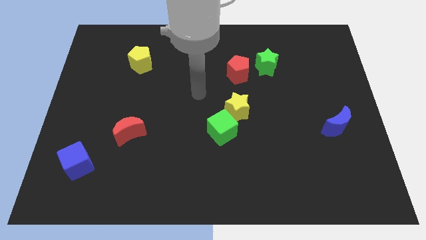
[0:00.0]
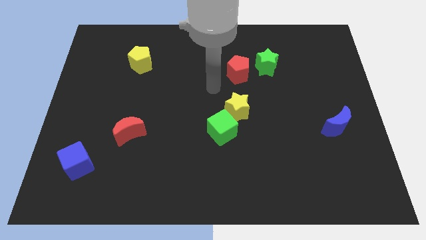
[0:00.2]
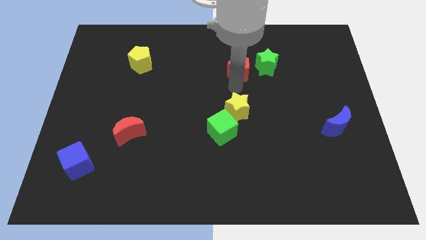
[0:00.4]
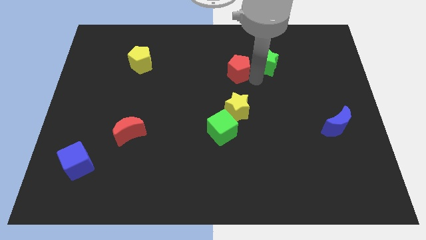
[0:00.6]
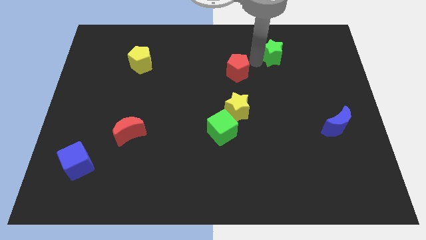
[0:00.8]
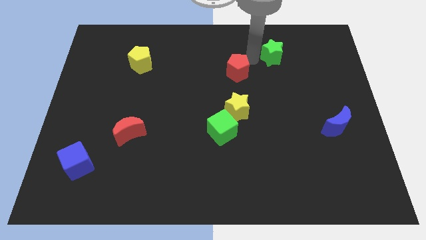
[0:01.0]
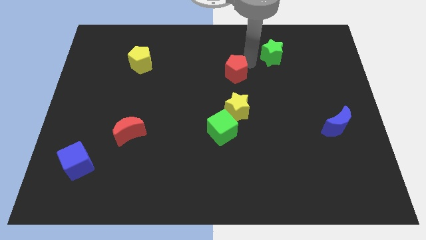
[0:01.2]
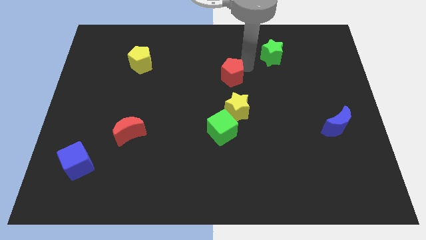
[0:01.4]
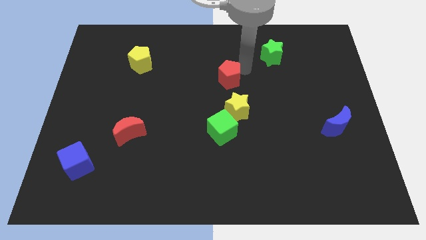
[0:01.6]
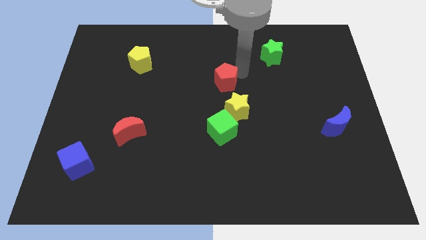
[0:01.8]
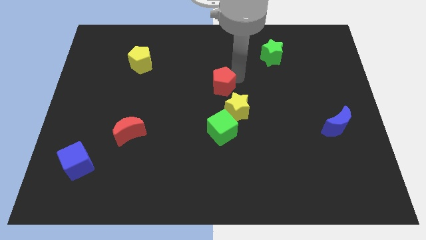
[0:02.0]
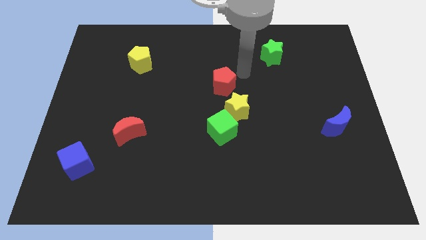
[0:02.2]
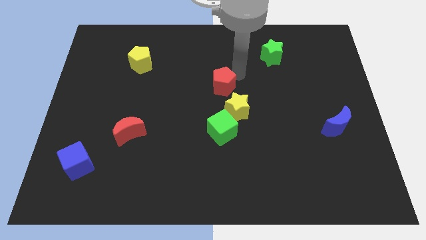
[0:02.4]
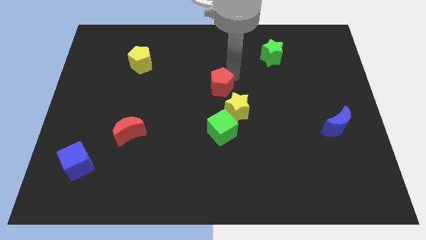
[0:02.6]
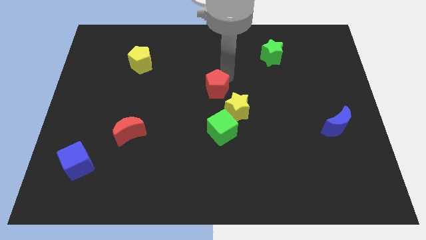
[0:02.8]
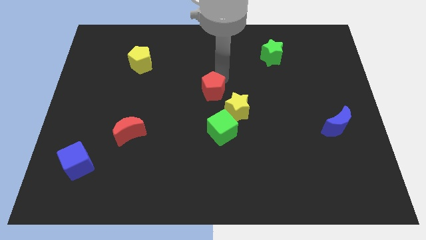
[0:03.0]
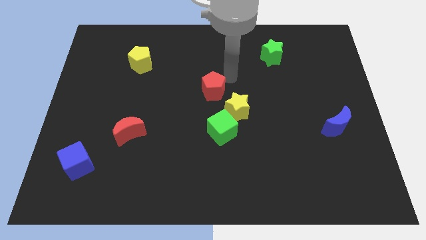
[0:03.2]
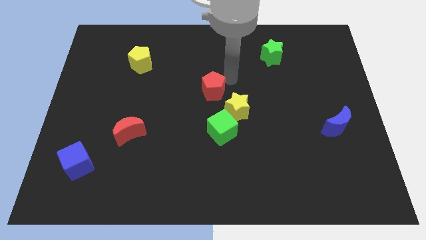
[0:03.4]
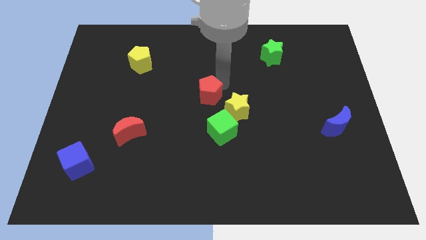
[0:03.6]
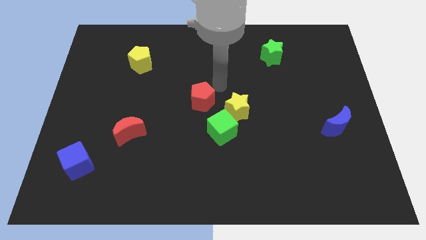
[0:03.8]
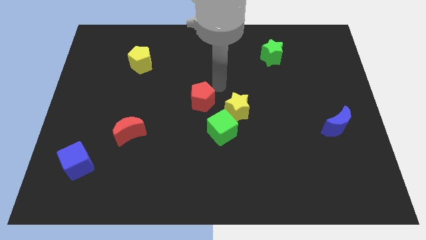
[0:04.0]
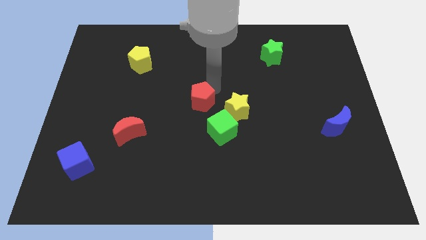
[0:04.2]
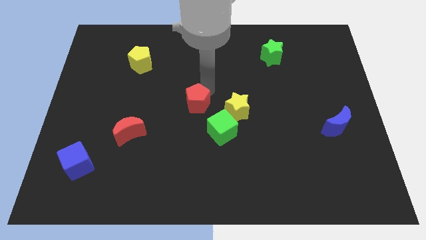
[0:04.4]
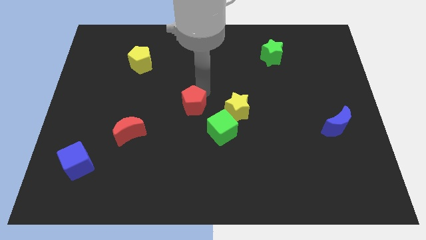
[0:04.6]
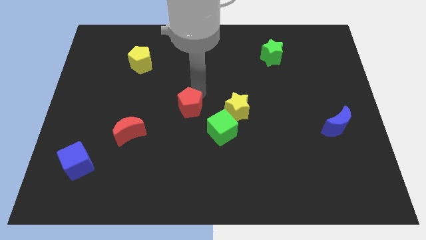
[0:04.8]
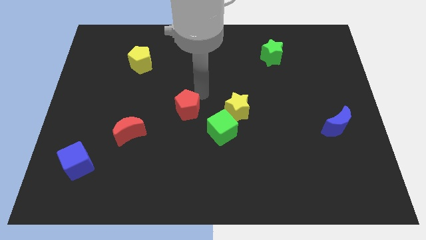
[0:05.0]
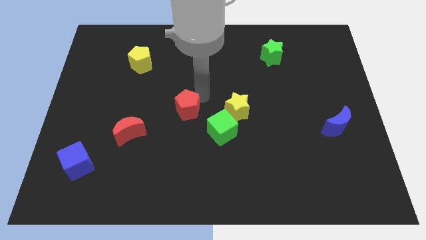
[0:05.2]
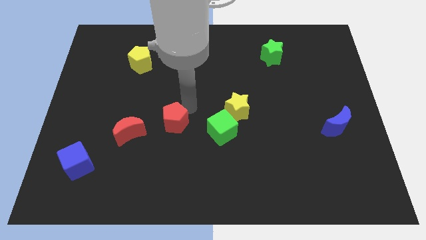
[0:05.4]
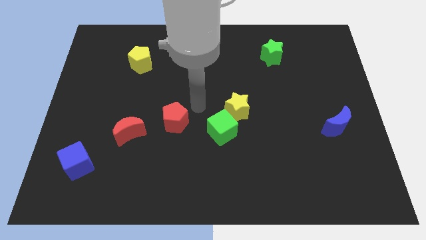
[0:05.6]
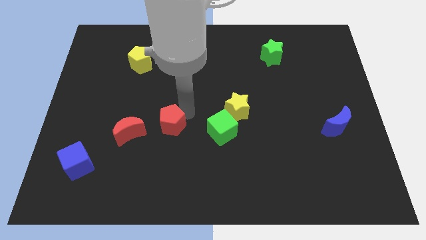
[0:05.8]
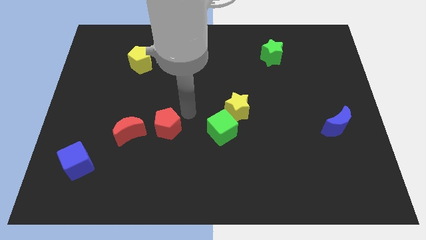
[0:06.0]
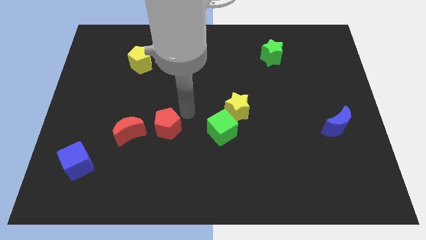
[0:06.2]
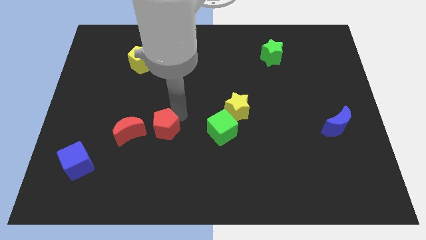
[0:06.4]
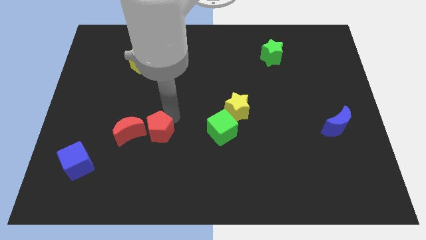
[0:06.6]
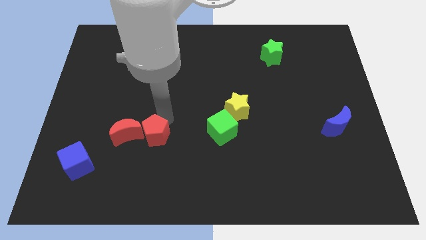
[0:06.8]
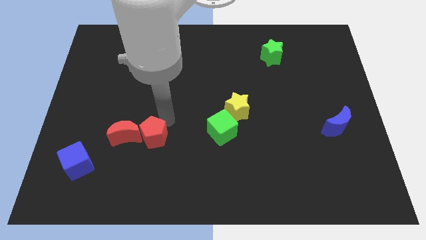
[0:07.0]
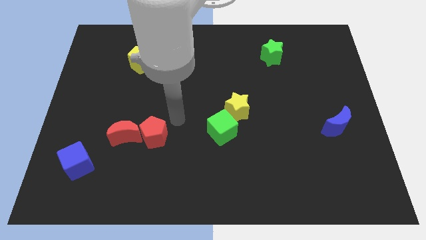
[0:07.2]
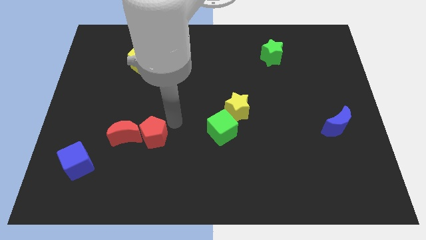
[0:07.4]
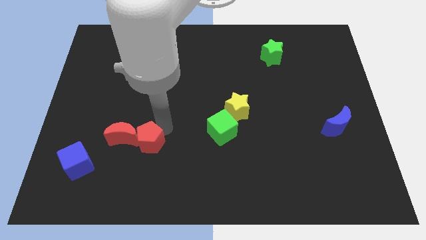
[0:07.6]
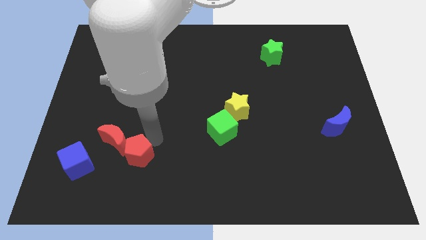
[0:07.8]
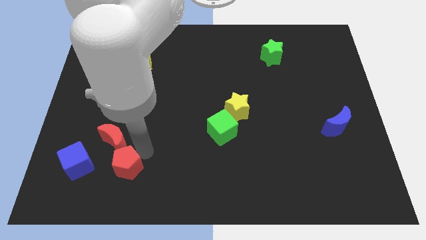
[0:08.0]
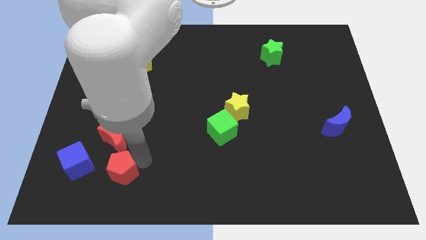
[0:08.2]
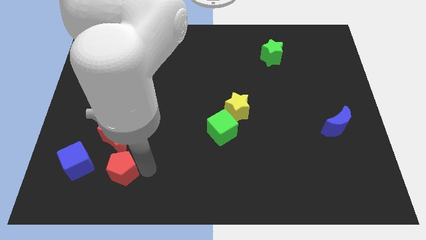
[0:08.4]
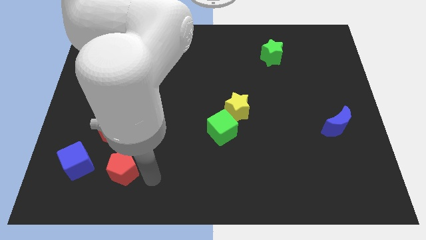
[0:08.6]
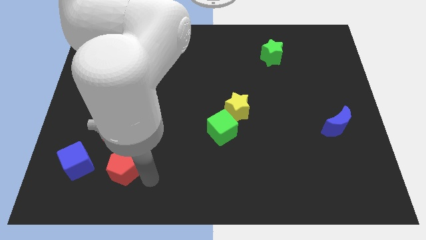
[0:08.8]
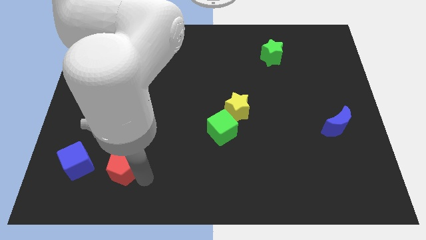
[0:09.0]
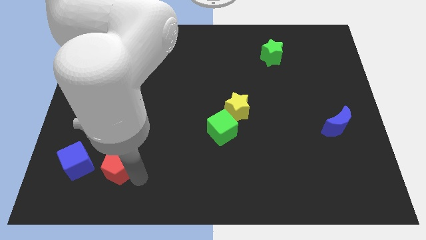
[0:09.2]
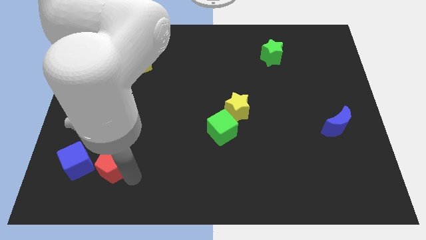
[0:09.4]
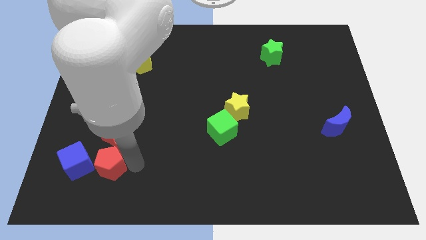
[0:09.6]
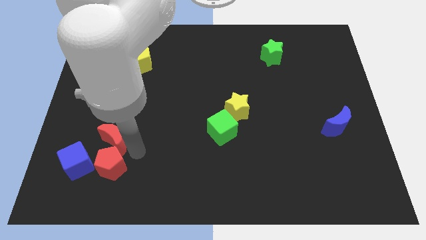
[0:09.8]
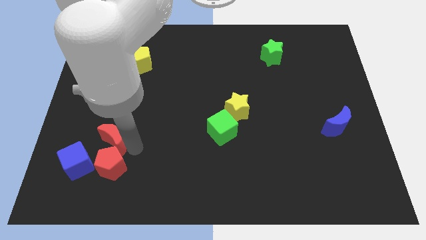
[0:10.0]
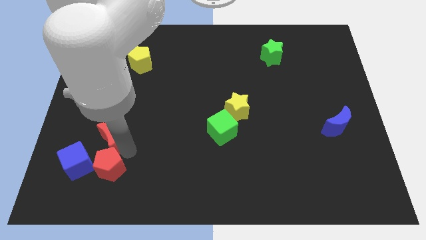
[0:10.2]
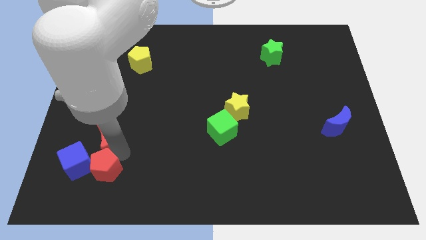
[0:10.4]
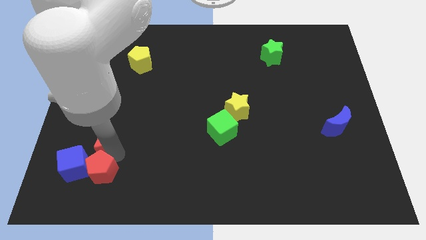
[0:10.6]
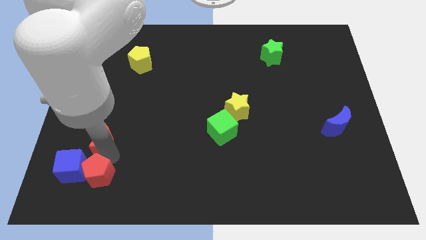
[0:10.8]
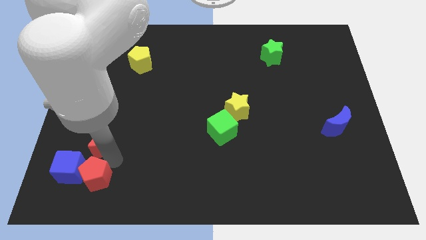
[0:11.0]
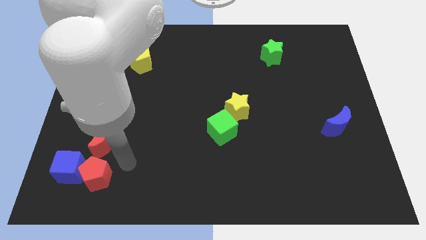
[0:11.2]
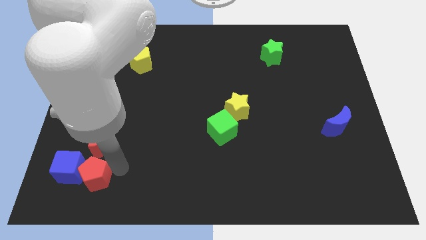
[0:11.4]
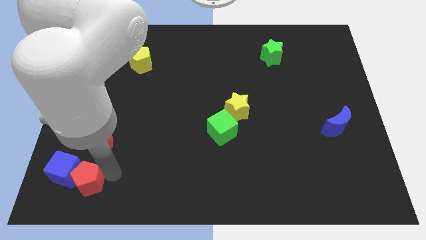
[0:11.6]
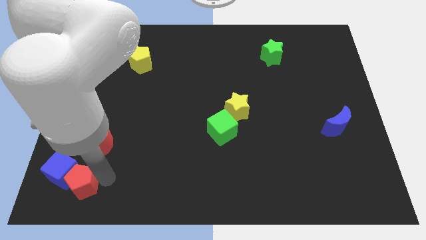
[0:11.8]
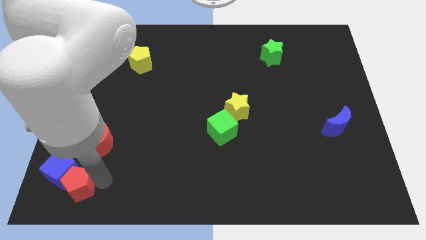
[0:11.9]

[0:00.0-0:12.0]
push the red pentagon to the bottom left
